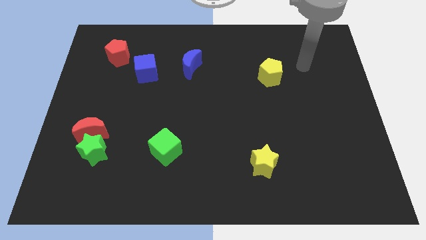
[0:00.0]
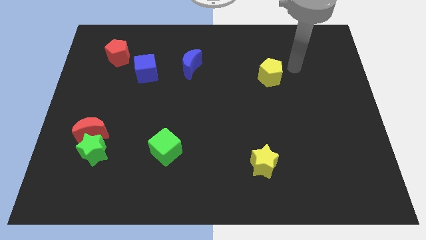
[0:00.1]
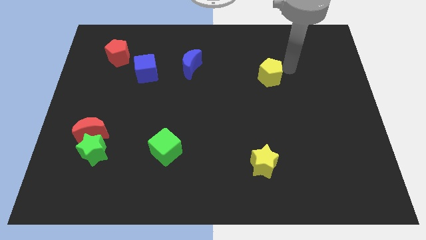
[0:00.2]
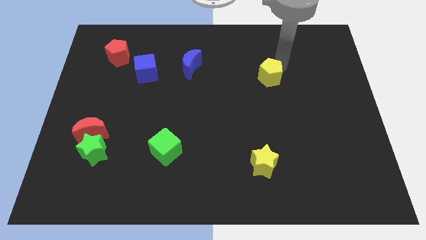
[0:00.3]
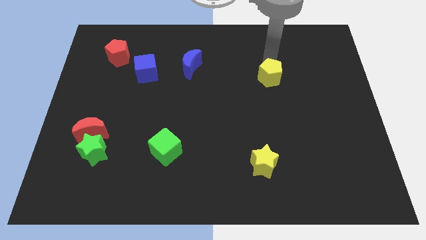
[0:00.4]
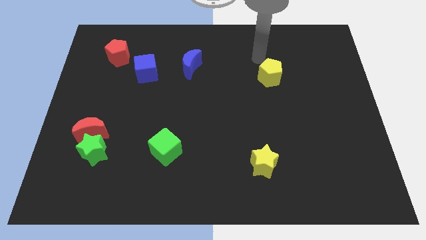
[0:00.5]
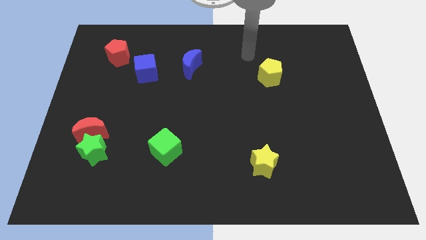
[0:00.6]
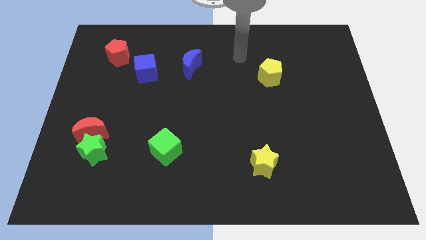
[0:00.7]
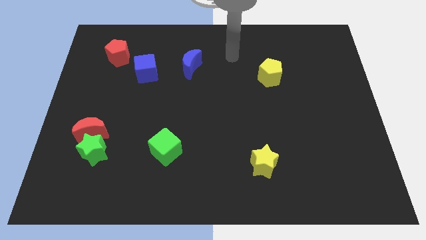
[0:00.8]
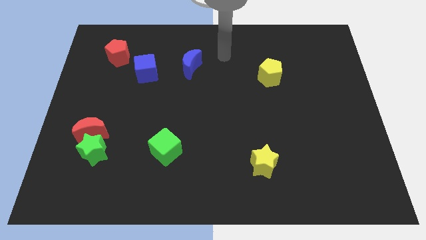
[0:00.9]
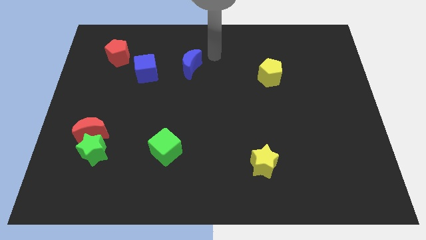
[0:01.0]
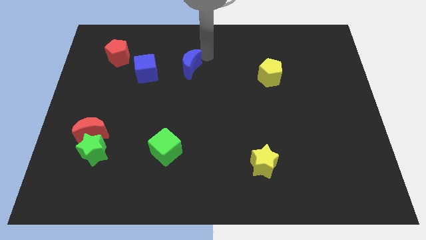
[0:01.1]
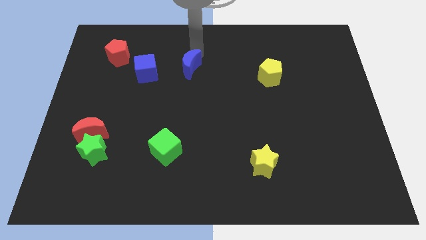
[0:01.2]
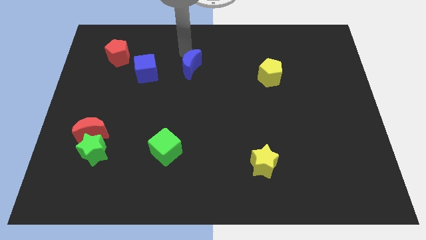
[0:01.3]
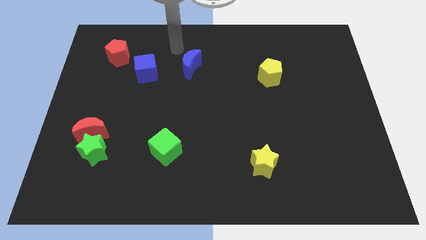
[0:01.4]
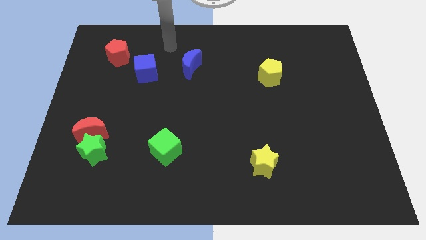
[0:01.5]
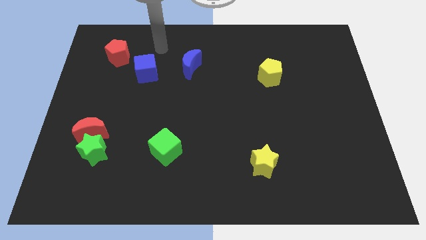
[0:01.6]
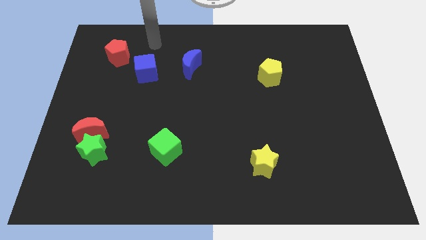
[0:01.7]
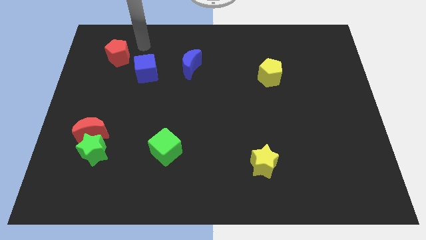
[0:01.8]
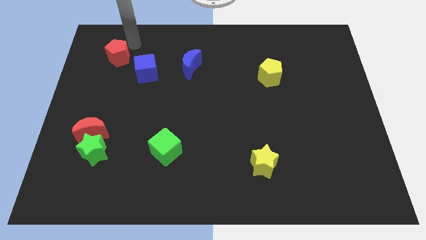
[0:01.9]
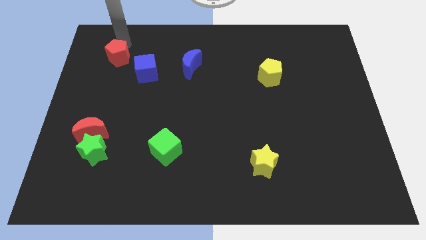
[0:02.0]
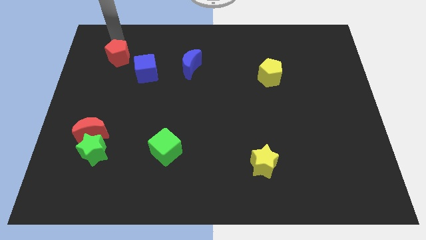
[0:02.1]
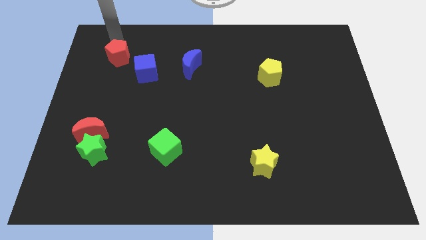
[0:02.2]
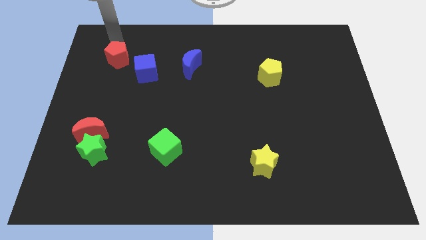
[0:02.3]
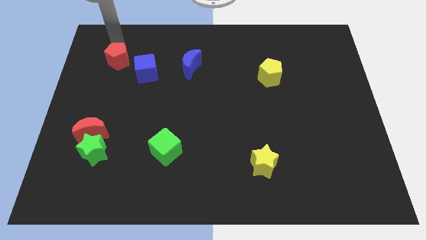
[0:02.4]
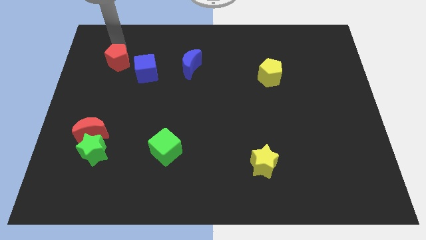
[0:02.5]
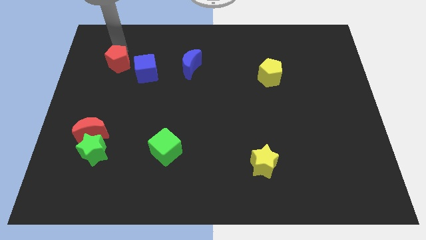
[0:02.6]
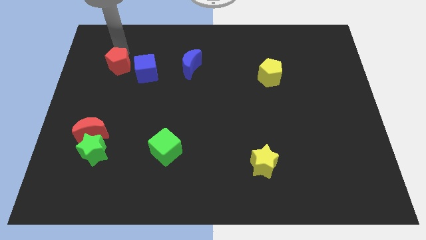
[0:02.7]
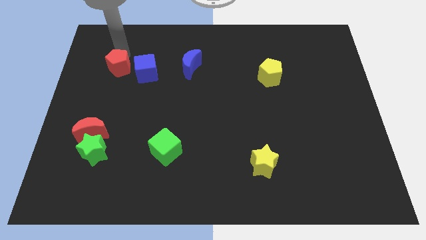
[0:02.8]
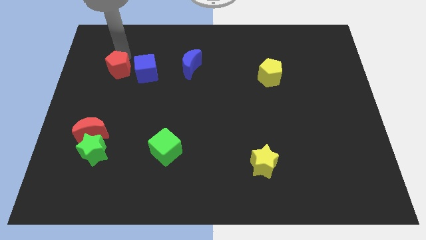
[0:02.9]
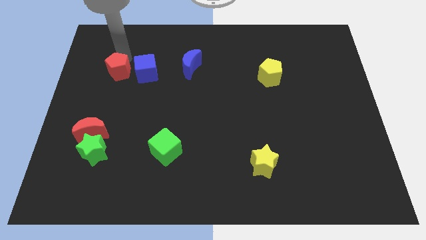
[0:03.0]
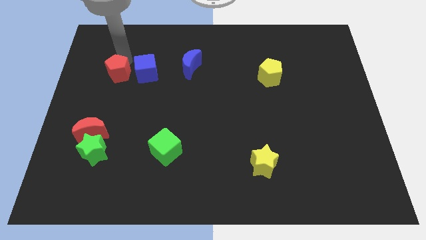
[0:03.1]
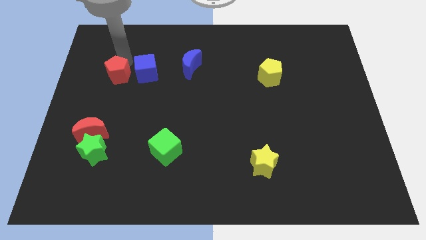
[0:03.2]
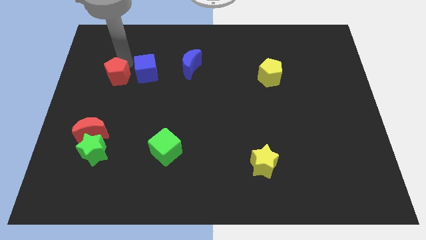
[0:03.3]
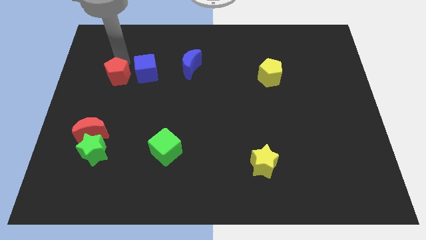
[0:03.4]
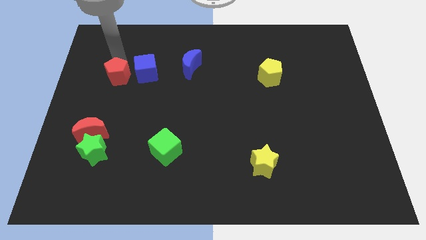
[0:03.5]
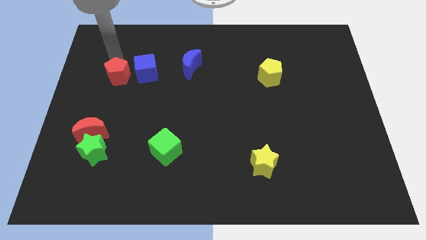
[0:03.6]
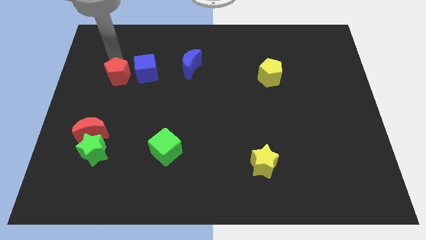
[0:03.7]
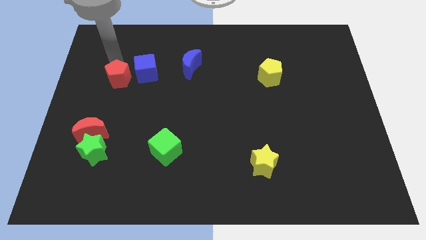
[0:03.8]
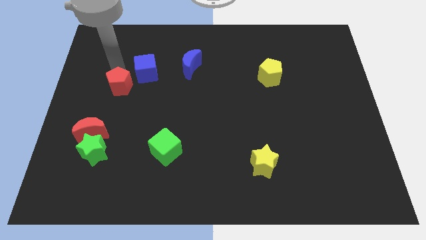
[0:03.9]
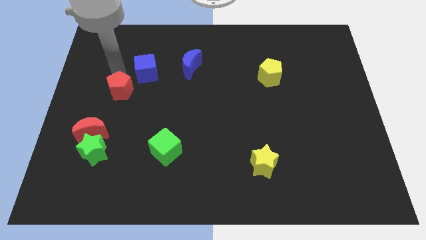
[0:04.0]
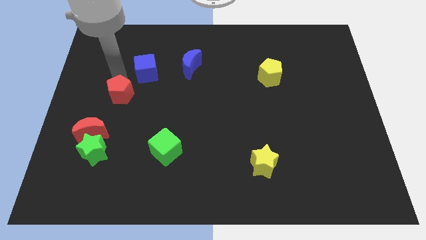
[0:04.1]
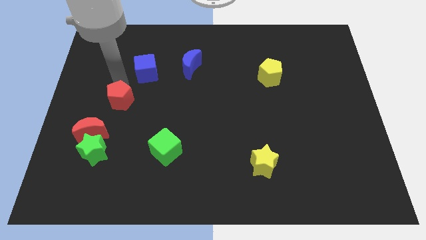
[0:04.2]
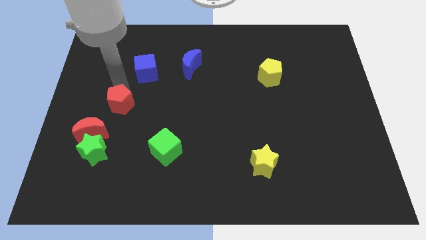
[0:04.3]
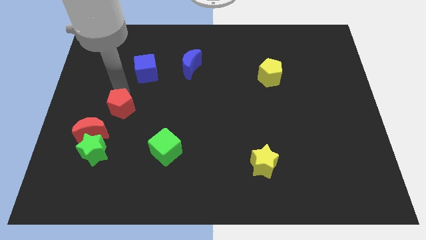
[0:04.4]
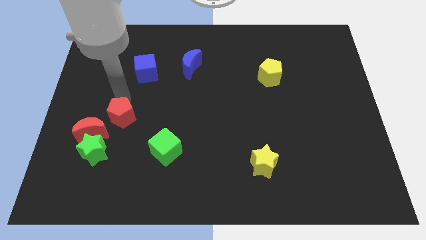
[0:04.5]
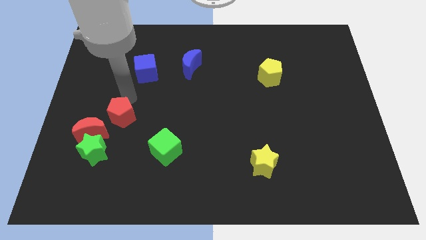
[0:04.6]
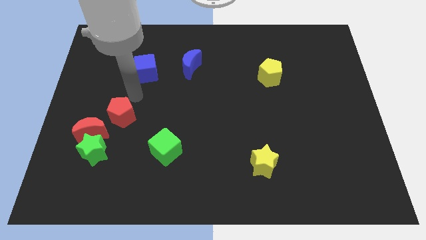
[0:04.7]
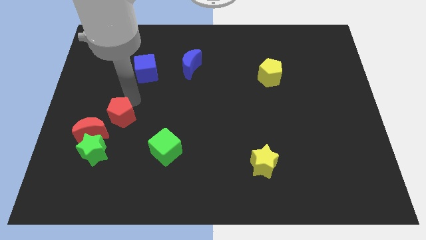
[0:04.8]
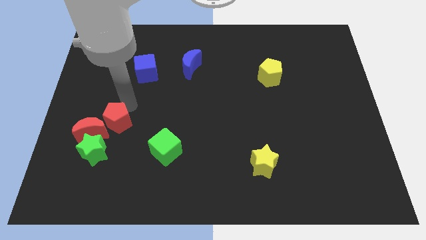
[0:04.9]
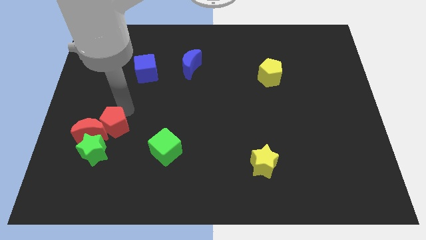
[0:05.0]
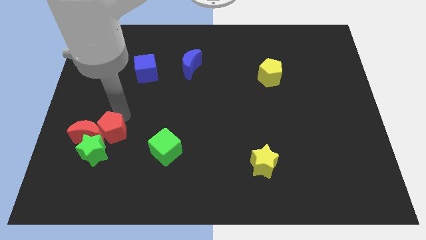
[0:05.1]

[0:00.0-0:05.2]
move the red pentagon towards the green star

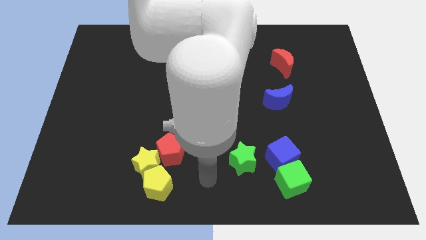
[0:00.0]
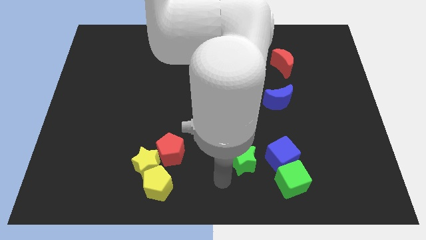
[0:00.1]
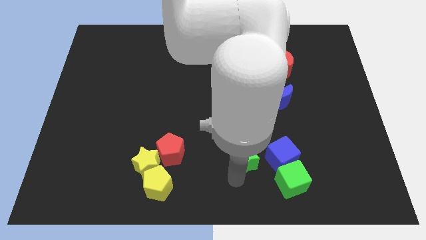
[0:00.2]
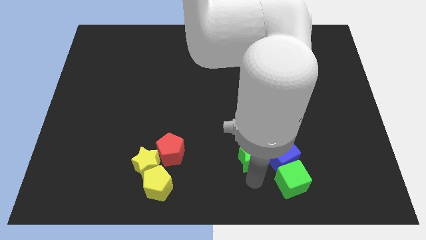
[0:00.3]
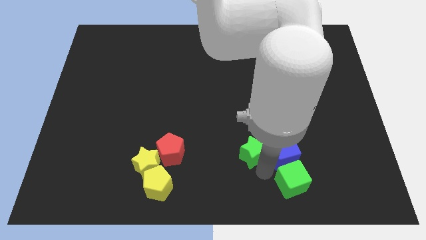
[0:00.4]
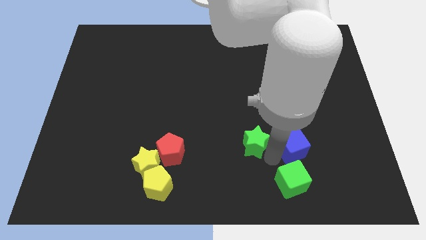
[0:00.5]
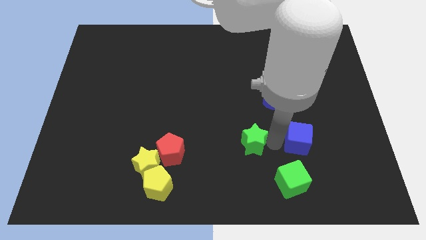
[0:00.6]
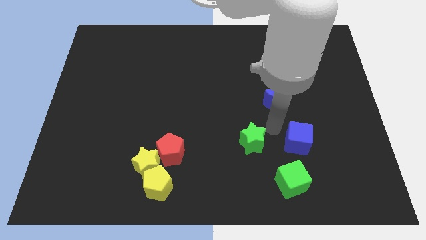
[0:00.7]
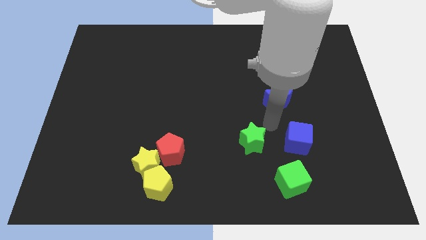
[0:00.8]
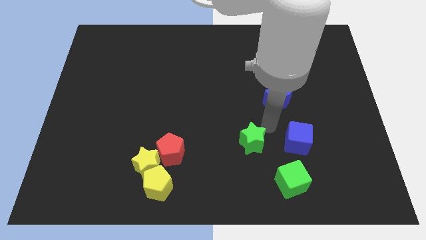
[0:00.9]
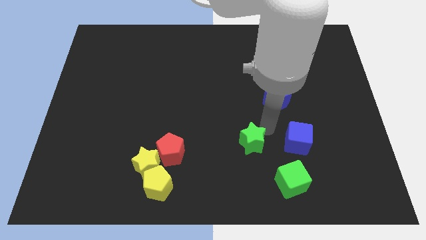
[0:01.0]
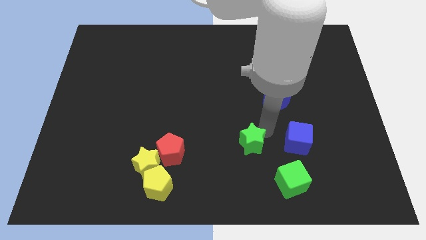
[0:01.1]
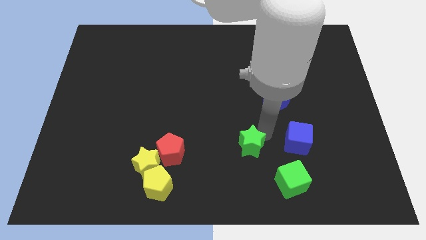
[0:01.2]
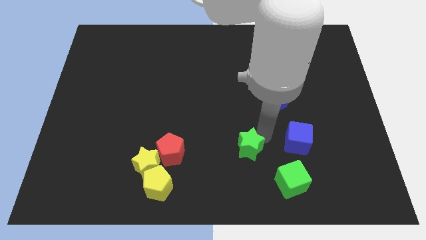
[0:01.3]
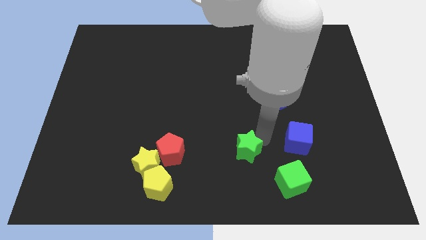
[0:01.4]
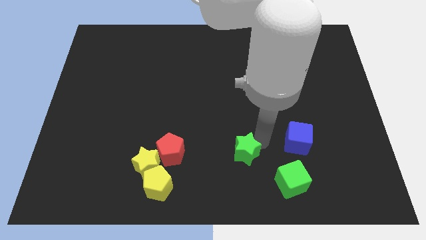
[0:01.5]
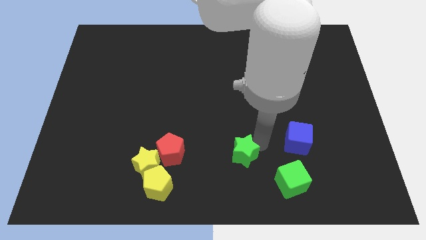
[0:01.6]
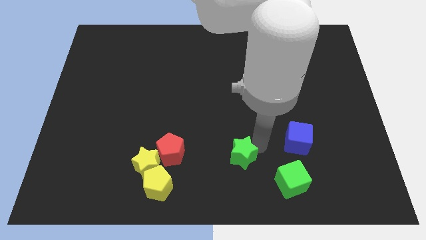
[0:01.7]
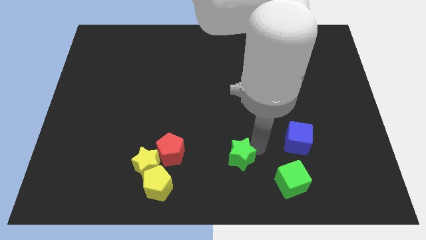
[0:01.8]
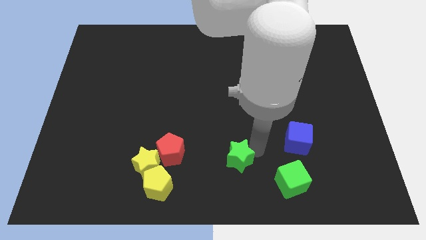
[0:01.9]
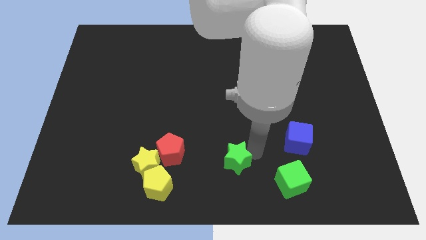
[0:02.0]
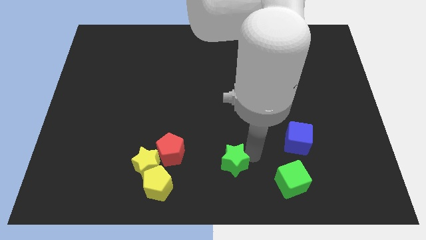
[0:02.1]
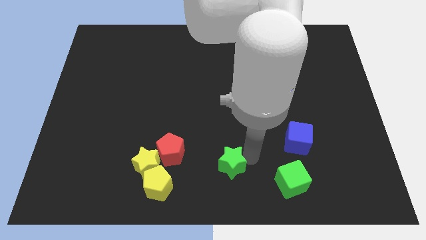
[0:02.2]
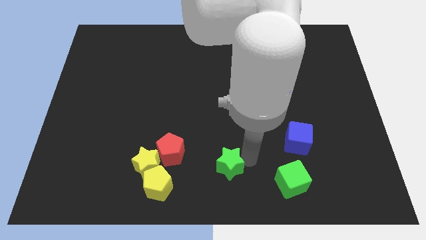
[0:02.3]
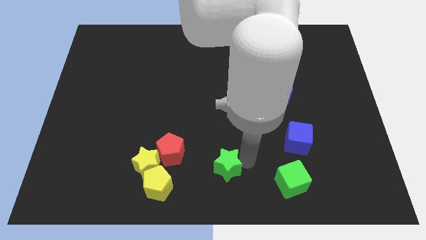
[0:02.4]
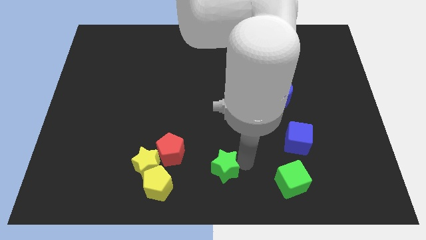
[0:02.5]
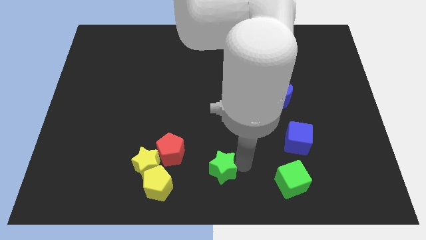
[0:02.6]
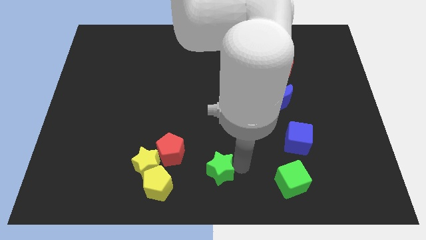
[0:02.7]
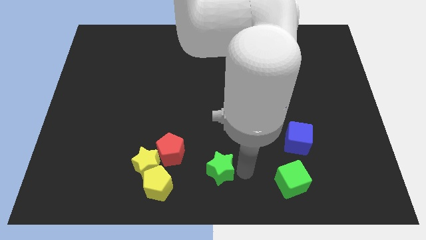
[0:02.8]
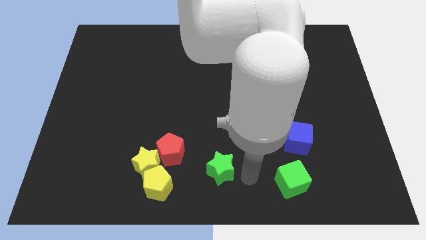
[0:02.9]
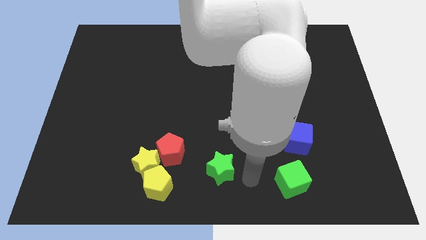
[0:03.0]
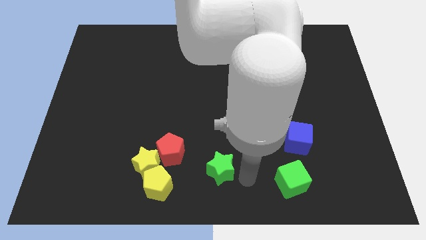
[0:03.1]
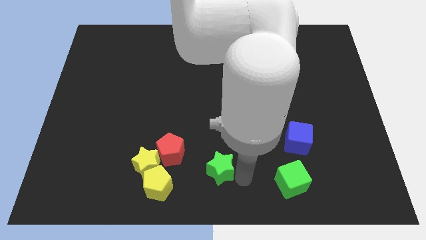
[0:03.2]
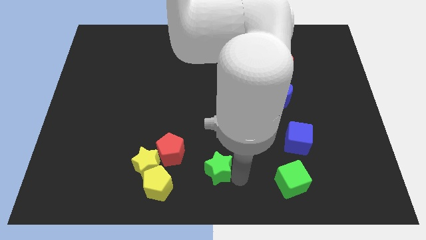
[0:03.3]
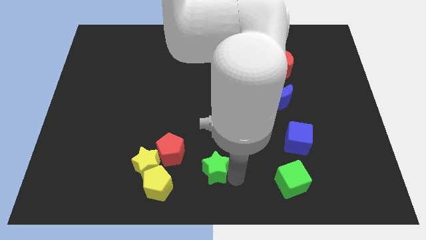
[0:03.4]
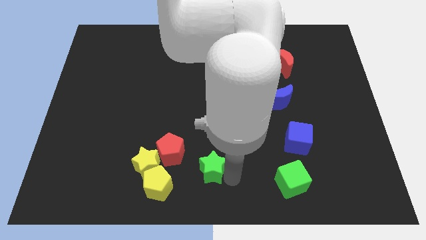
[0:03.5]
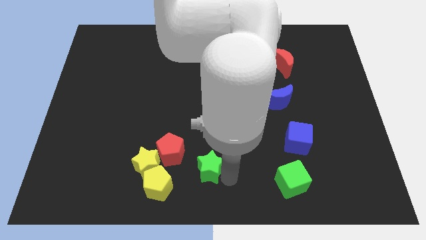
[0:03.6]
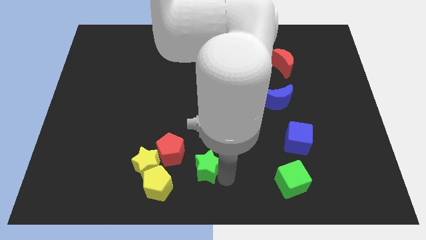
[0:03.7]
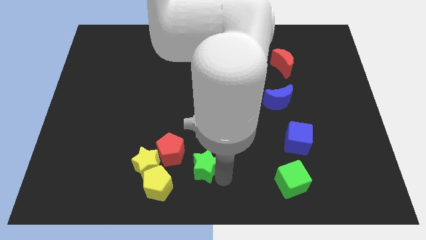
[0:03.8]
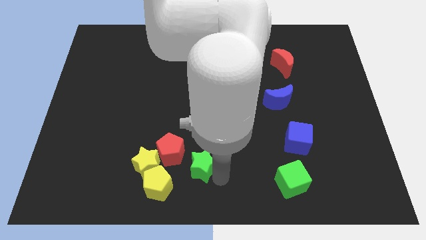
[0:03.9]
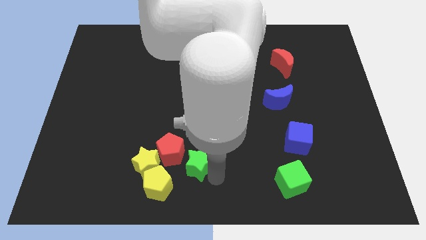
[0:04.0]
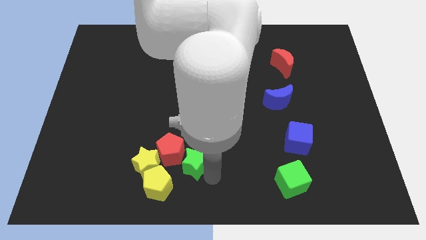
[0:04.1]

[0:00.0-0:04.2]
push the green star to the red pentagon
